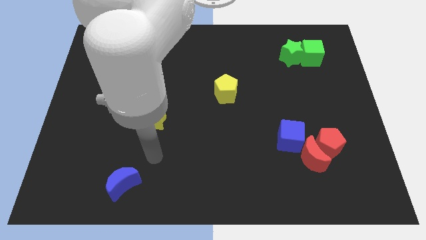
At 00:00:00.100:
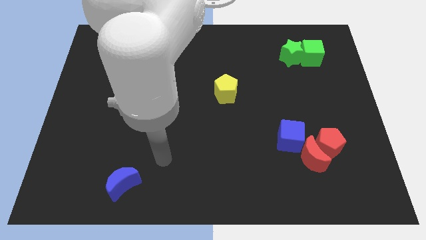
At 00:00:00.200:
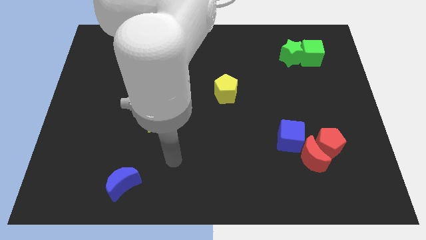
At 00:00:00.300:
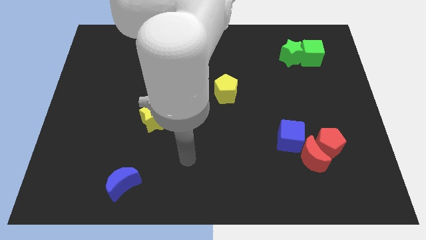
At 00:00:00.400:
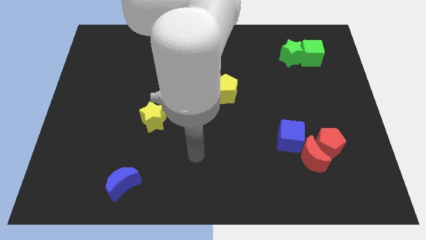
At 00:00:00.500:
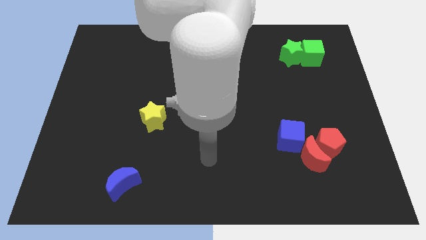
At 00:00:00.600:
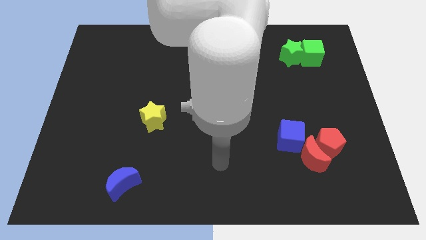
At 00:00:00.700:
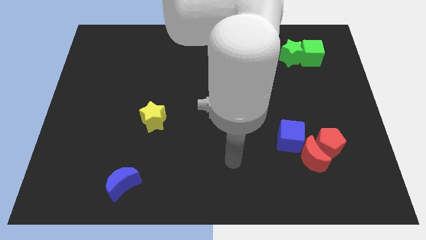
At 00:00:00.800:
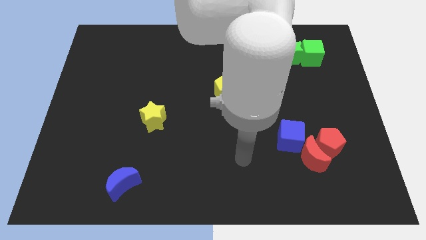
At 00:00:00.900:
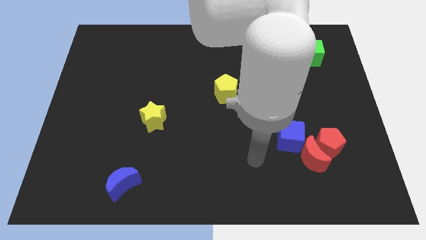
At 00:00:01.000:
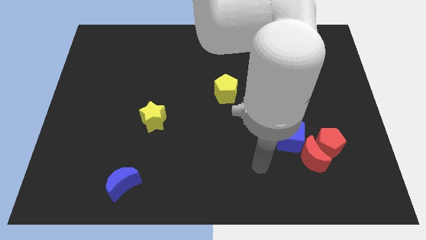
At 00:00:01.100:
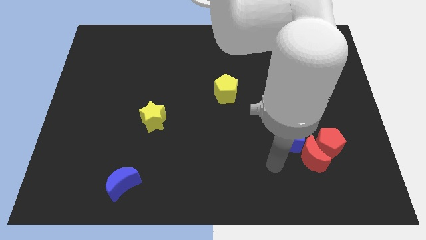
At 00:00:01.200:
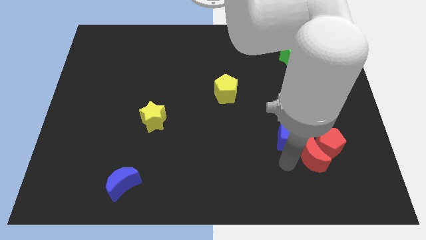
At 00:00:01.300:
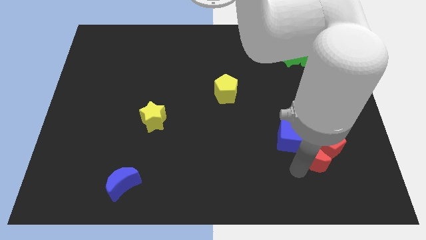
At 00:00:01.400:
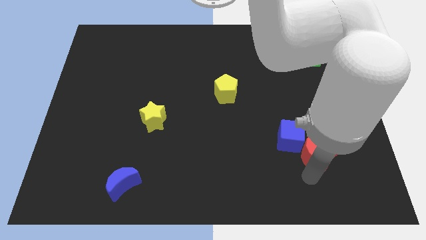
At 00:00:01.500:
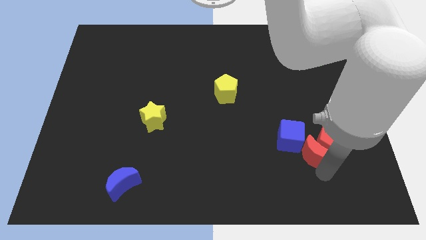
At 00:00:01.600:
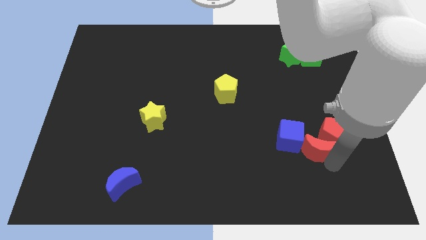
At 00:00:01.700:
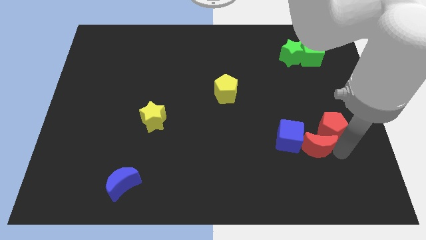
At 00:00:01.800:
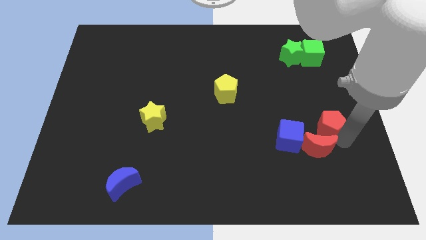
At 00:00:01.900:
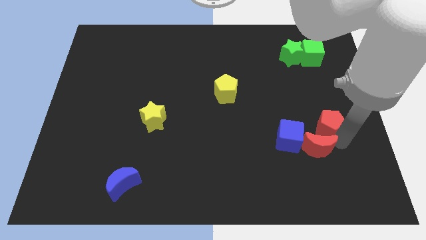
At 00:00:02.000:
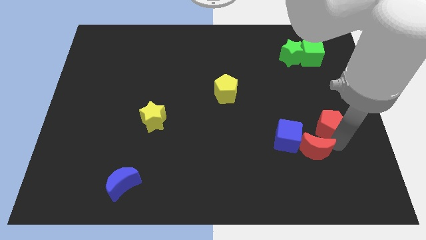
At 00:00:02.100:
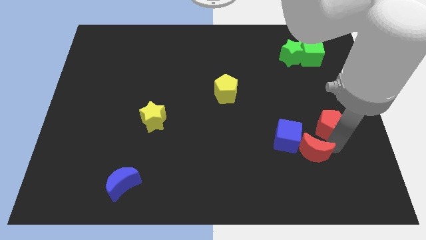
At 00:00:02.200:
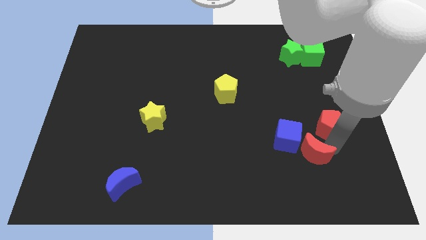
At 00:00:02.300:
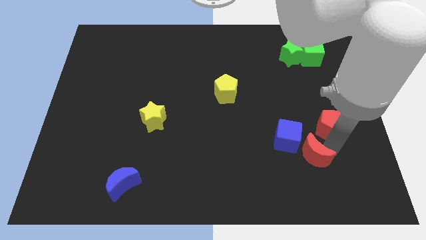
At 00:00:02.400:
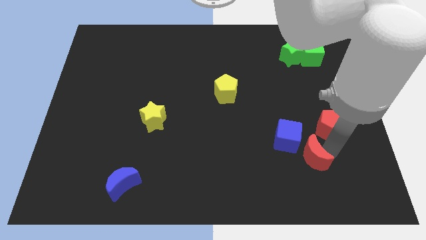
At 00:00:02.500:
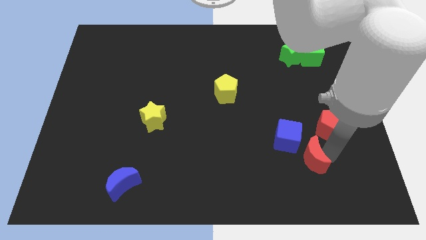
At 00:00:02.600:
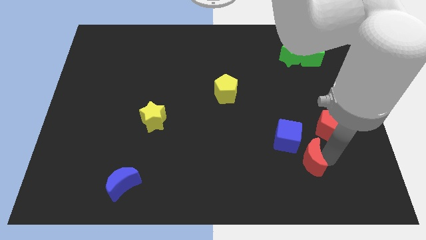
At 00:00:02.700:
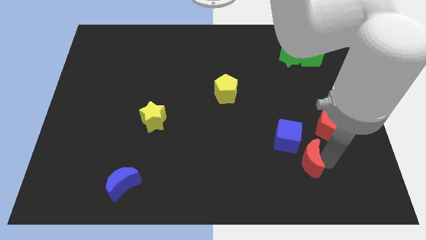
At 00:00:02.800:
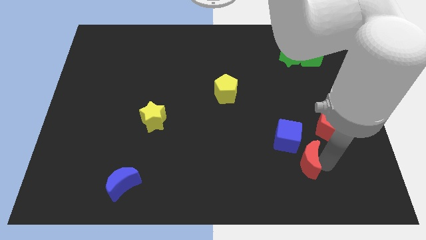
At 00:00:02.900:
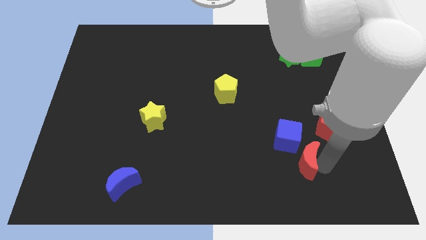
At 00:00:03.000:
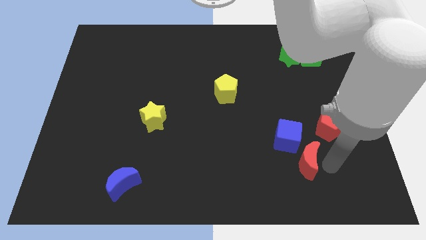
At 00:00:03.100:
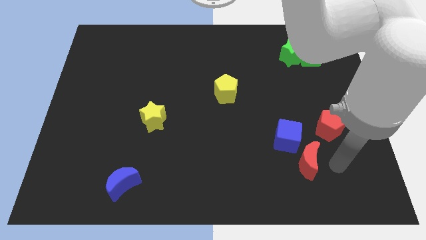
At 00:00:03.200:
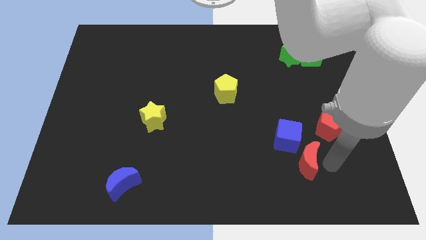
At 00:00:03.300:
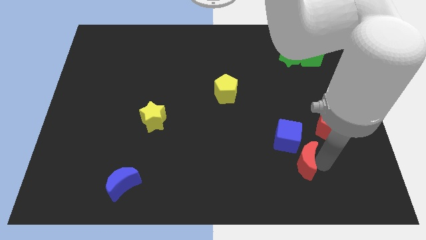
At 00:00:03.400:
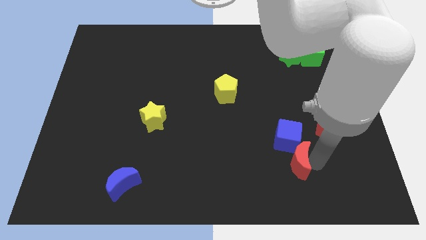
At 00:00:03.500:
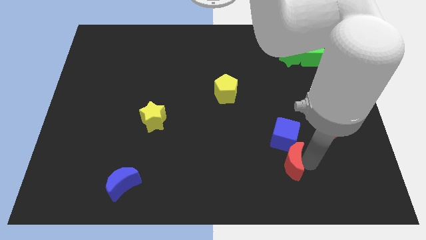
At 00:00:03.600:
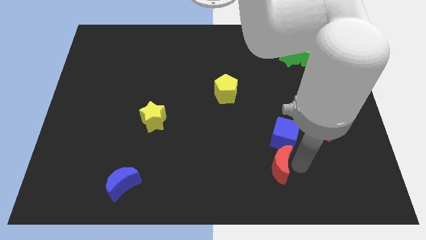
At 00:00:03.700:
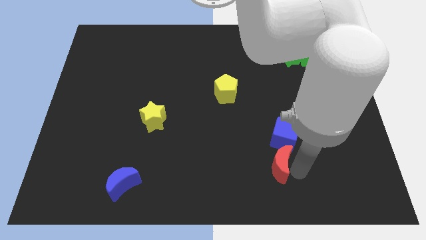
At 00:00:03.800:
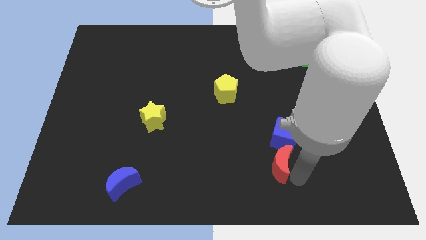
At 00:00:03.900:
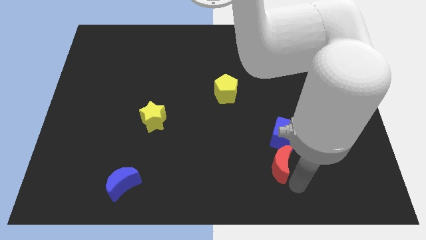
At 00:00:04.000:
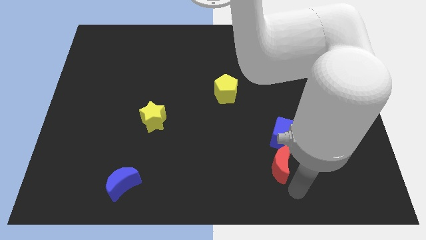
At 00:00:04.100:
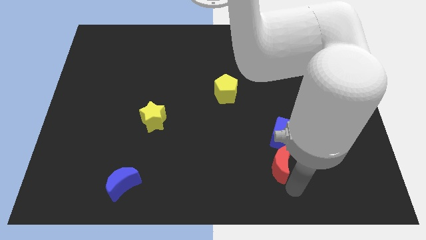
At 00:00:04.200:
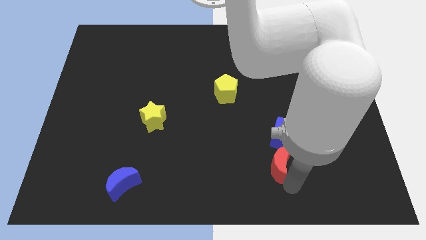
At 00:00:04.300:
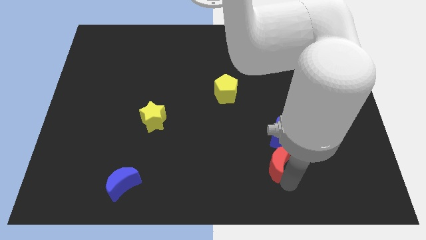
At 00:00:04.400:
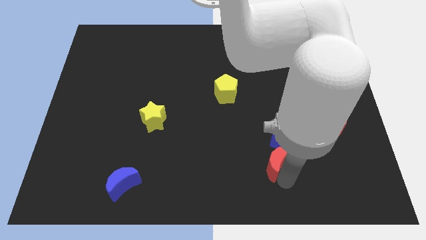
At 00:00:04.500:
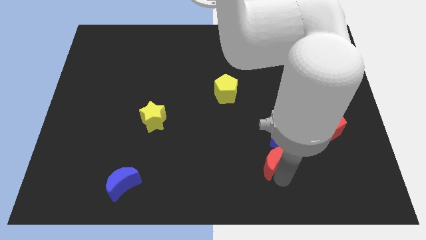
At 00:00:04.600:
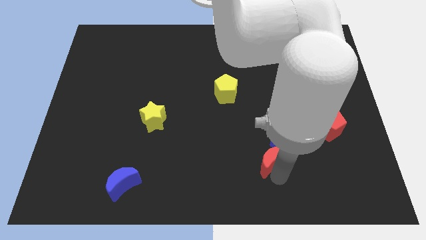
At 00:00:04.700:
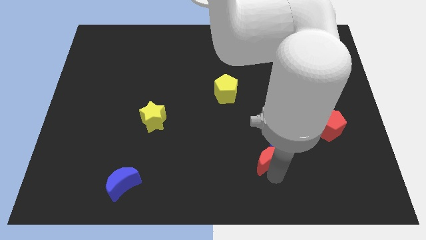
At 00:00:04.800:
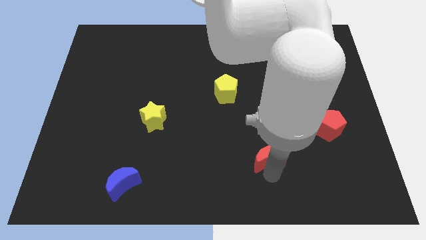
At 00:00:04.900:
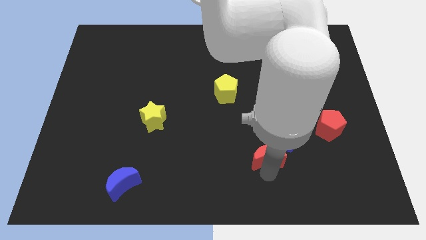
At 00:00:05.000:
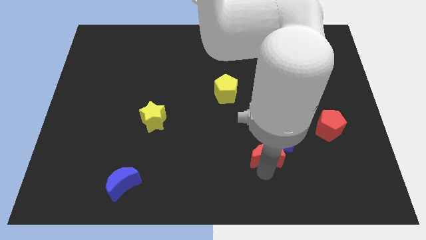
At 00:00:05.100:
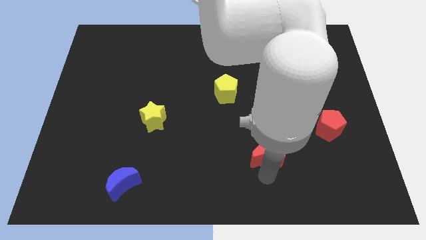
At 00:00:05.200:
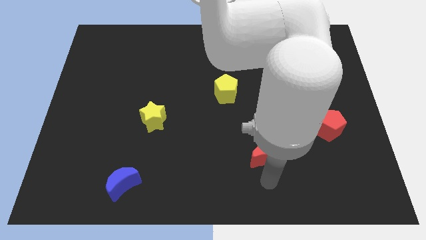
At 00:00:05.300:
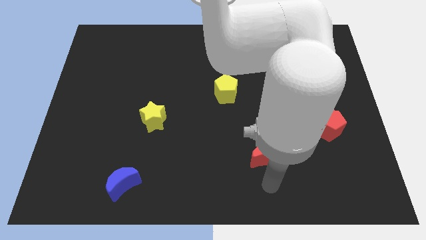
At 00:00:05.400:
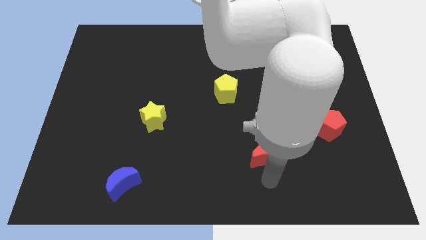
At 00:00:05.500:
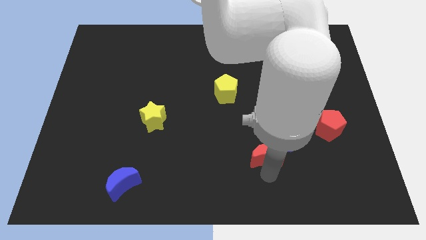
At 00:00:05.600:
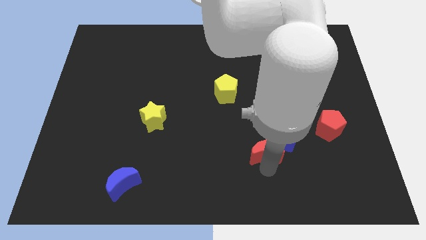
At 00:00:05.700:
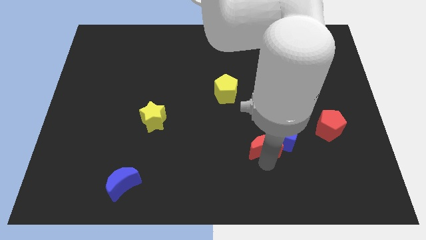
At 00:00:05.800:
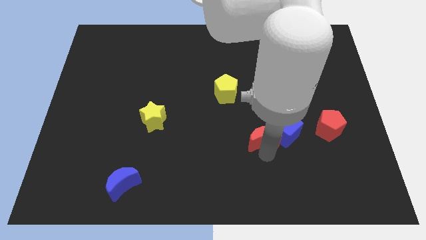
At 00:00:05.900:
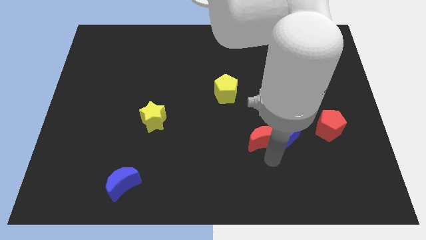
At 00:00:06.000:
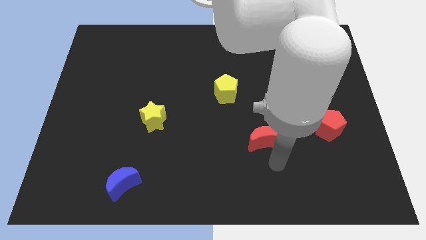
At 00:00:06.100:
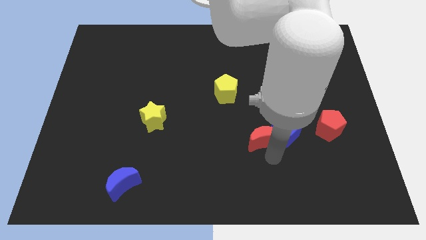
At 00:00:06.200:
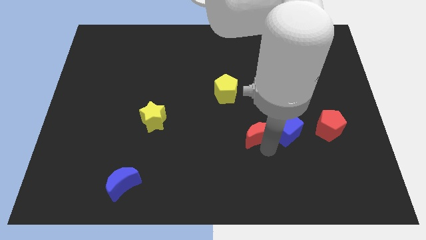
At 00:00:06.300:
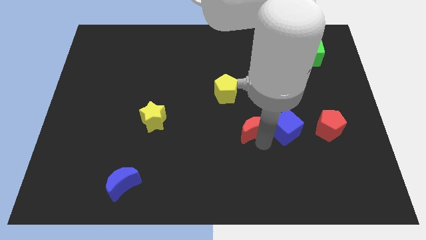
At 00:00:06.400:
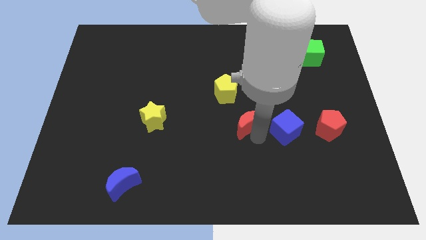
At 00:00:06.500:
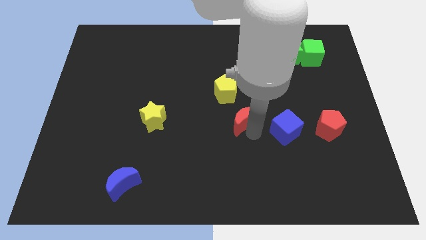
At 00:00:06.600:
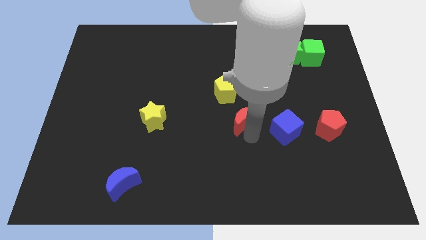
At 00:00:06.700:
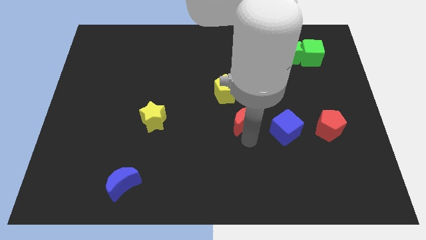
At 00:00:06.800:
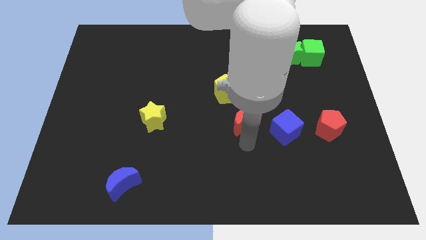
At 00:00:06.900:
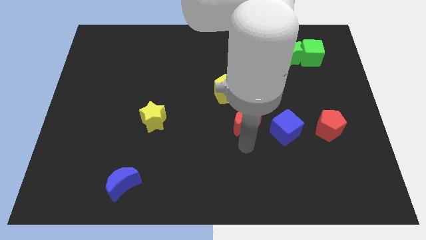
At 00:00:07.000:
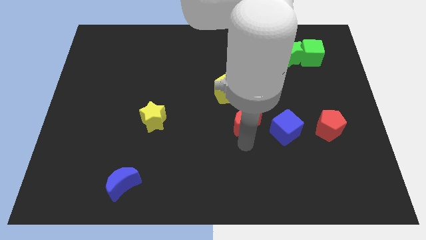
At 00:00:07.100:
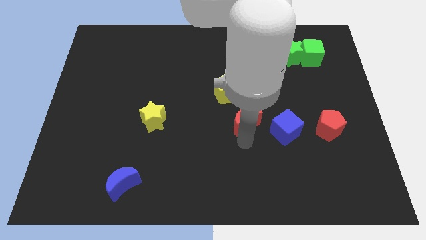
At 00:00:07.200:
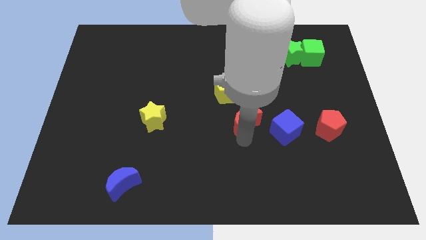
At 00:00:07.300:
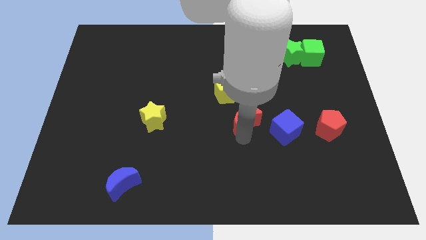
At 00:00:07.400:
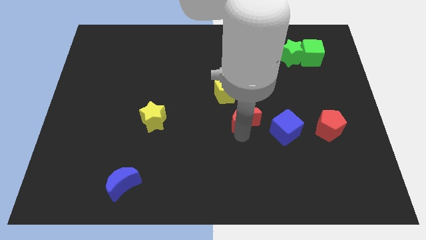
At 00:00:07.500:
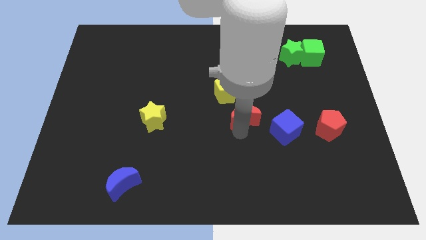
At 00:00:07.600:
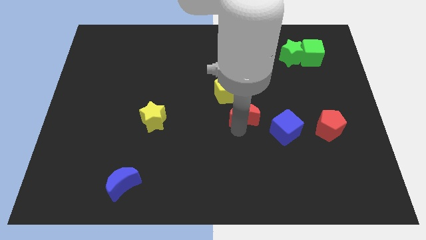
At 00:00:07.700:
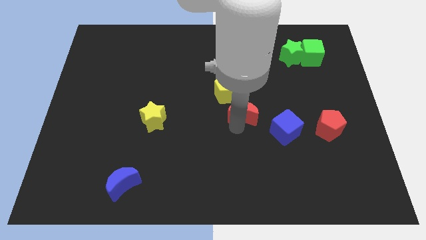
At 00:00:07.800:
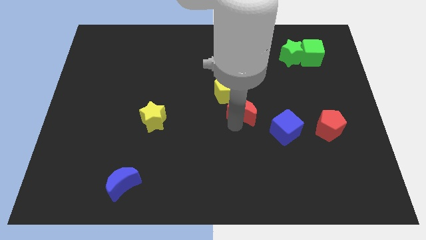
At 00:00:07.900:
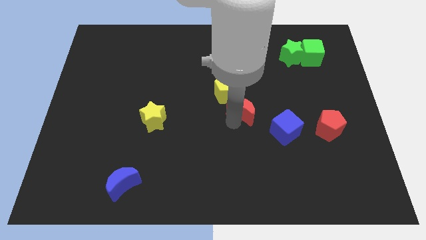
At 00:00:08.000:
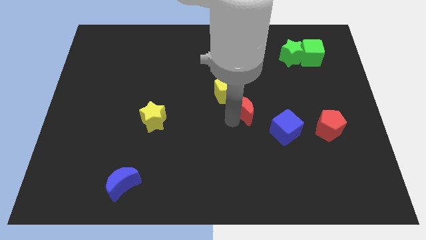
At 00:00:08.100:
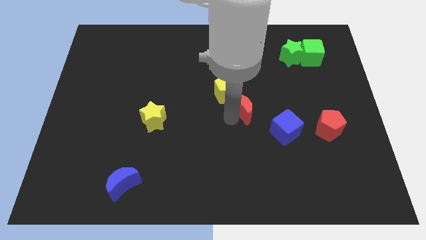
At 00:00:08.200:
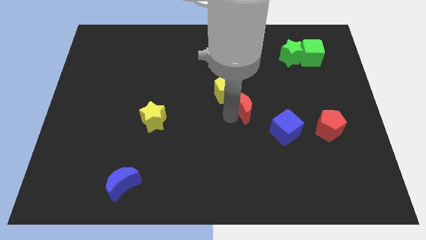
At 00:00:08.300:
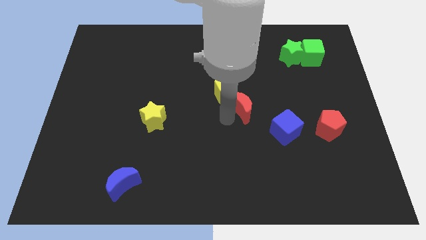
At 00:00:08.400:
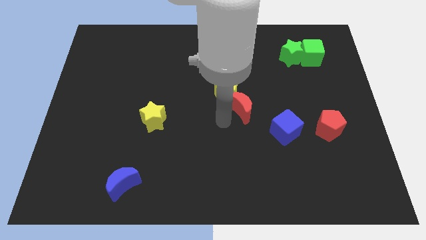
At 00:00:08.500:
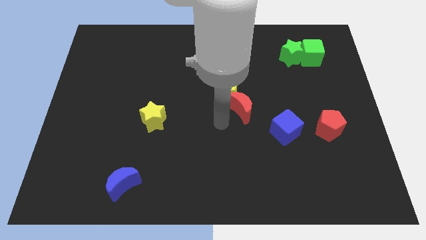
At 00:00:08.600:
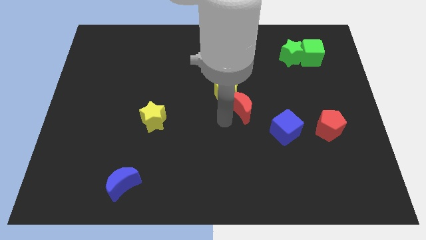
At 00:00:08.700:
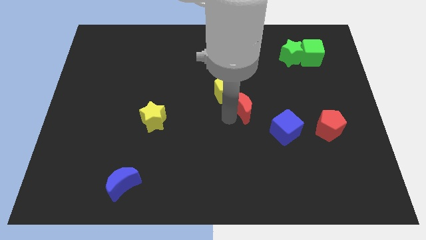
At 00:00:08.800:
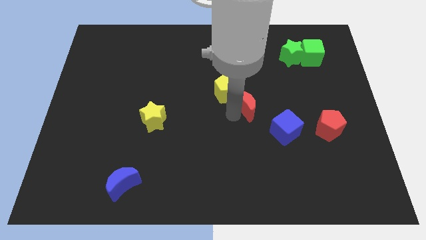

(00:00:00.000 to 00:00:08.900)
slide the red moon right of the yellow pentagon
